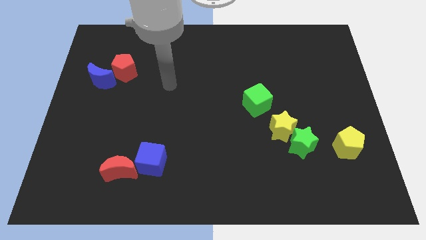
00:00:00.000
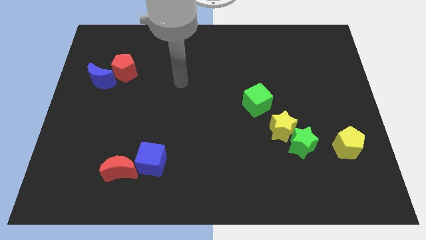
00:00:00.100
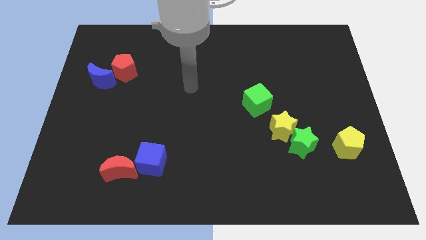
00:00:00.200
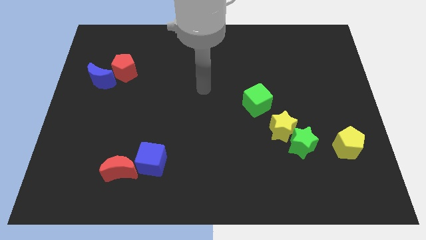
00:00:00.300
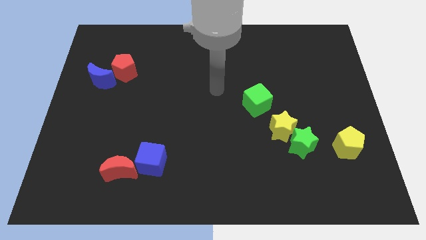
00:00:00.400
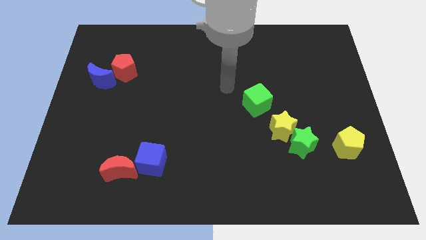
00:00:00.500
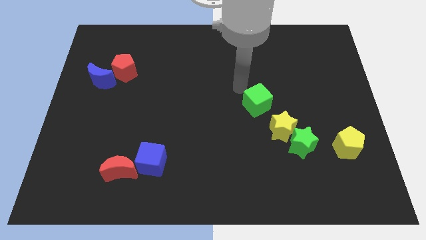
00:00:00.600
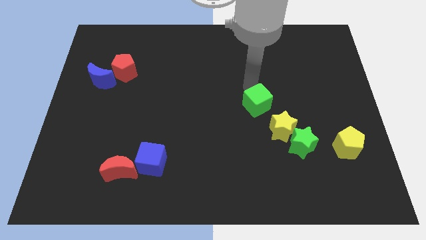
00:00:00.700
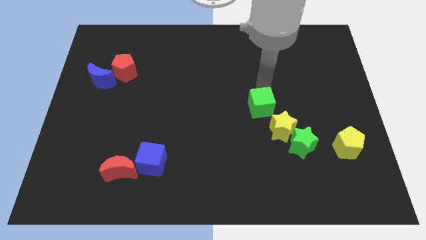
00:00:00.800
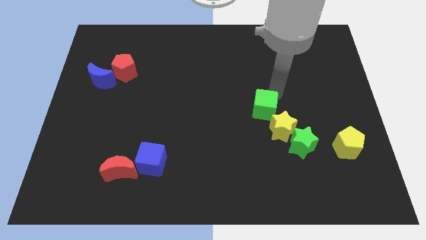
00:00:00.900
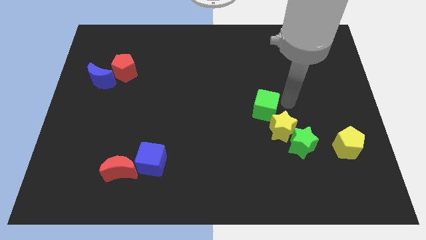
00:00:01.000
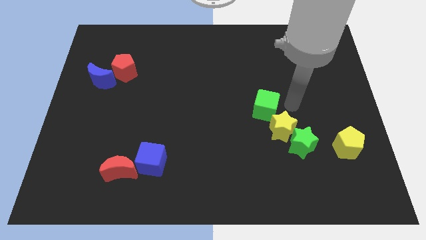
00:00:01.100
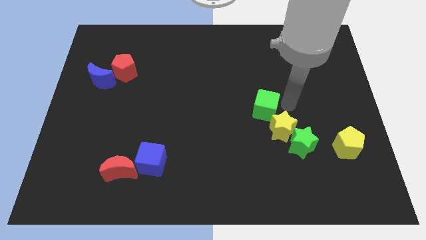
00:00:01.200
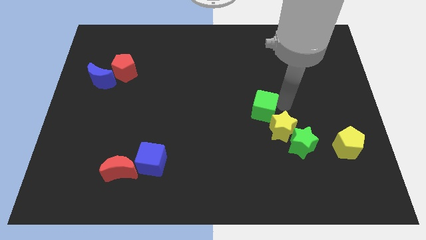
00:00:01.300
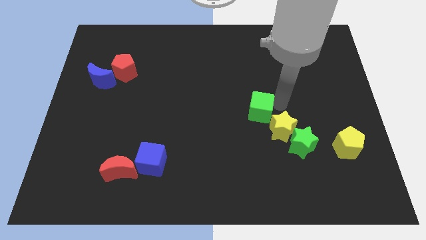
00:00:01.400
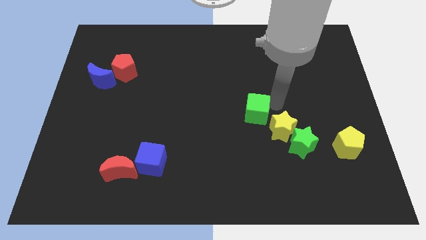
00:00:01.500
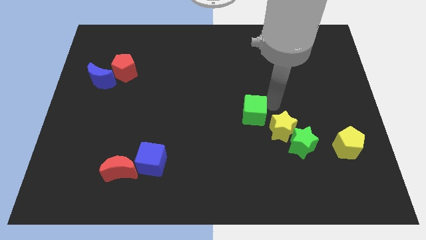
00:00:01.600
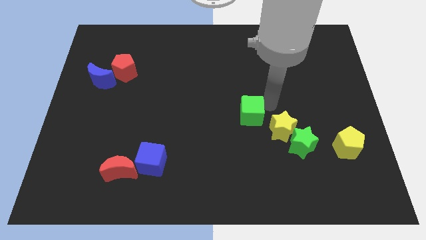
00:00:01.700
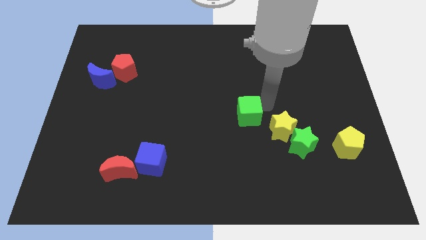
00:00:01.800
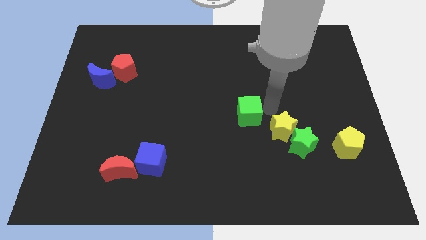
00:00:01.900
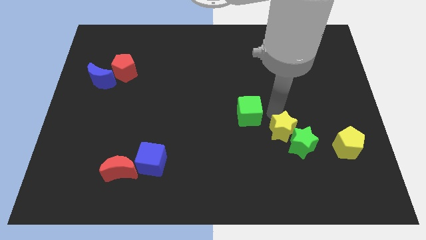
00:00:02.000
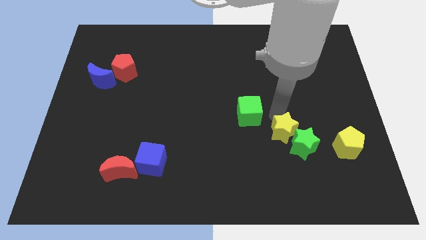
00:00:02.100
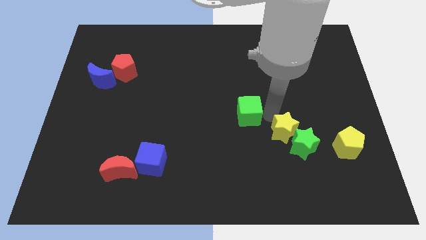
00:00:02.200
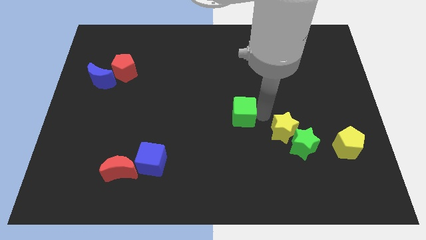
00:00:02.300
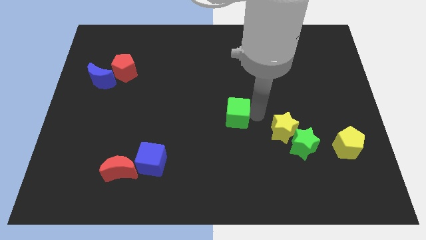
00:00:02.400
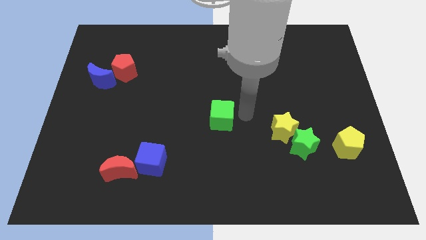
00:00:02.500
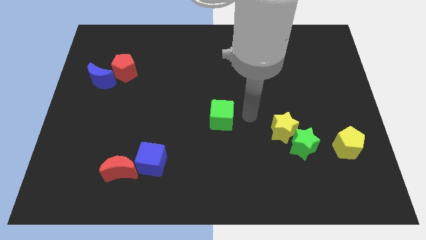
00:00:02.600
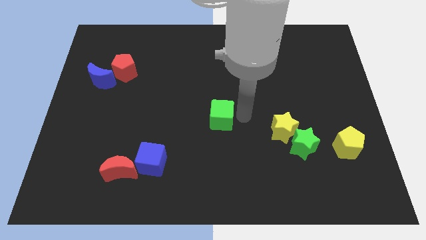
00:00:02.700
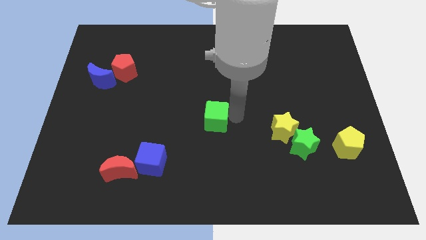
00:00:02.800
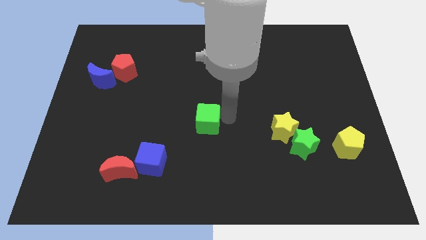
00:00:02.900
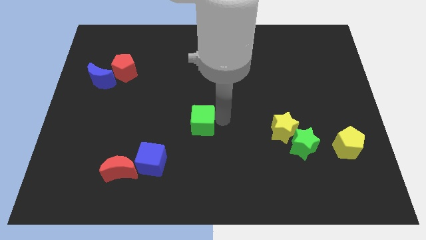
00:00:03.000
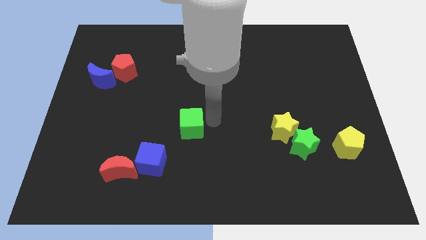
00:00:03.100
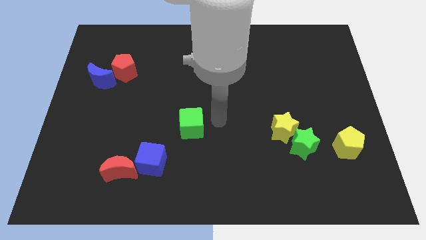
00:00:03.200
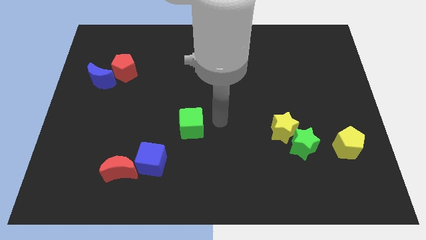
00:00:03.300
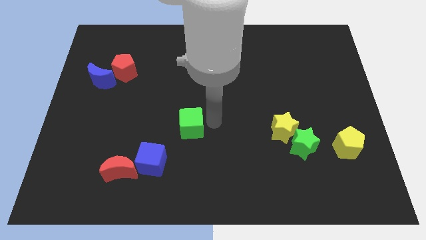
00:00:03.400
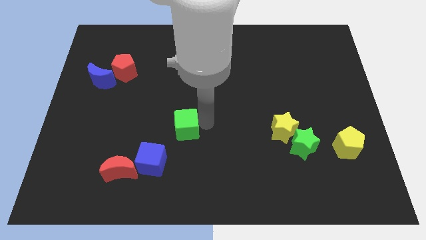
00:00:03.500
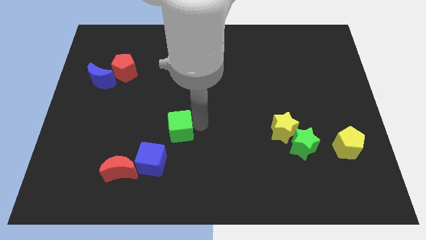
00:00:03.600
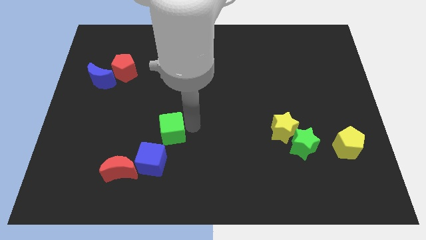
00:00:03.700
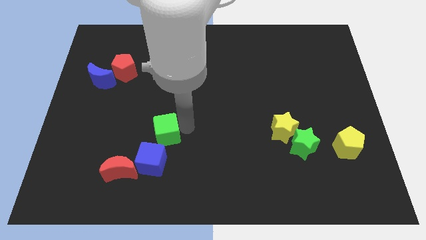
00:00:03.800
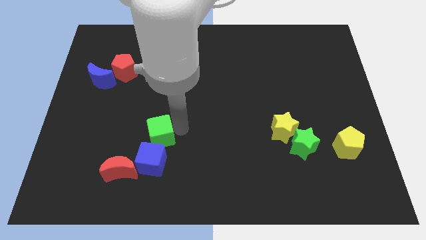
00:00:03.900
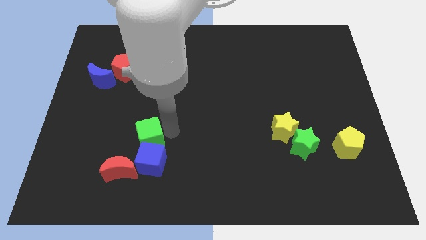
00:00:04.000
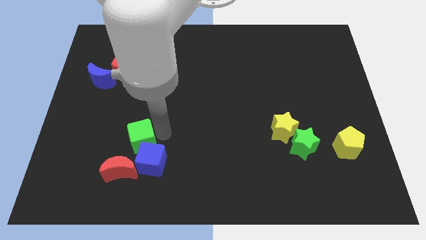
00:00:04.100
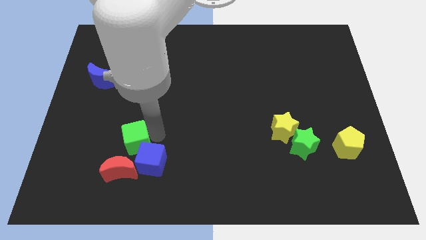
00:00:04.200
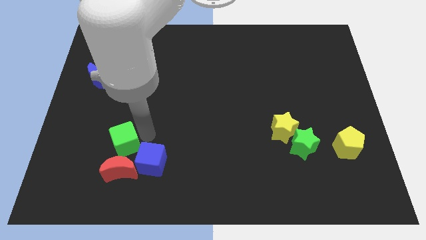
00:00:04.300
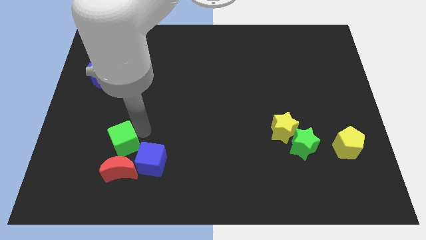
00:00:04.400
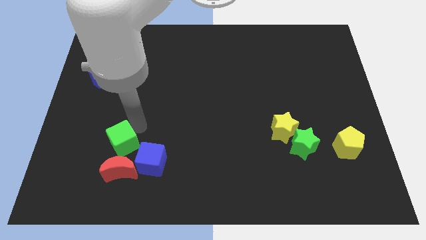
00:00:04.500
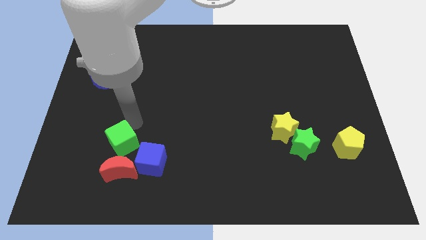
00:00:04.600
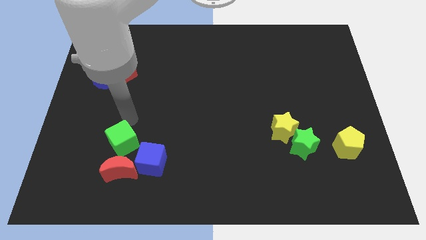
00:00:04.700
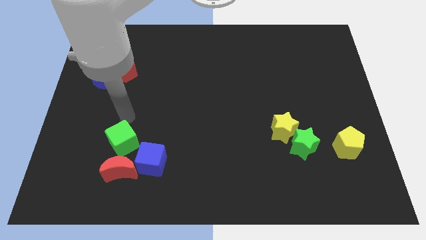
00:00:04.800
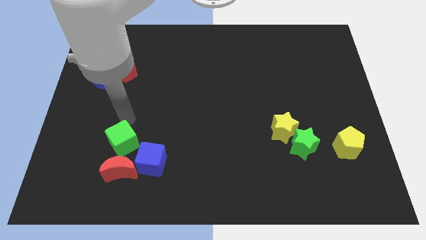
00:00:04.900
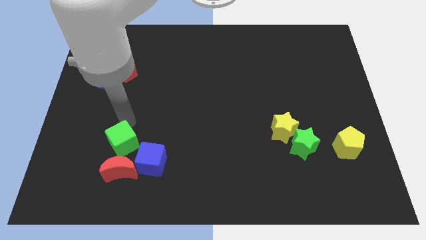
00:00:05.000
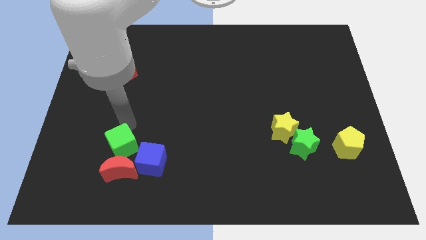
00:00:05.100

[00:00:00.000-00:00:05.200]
slide the green cube to the red moon

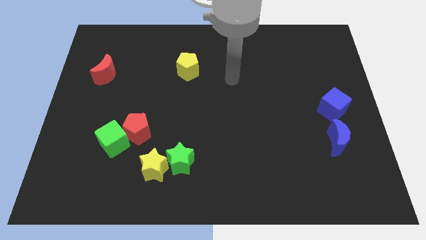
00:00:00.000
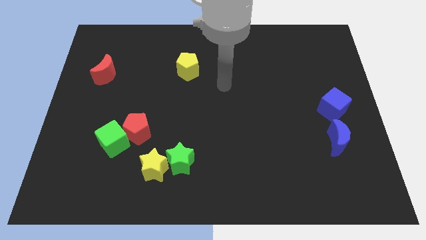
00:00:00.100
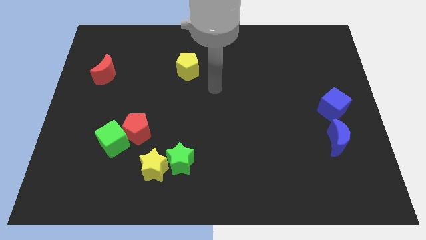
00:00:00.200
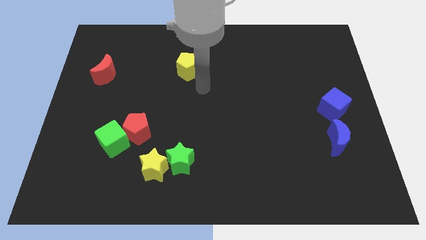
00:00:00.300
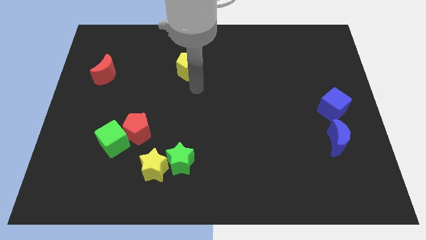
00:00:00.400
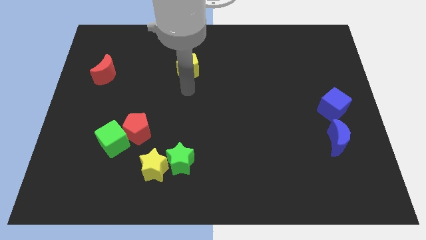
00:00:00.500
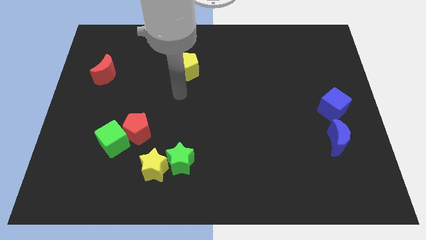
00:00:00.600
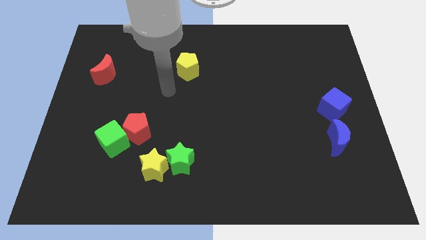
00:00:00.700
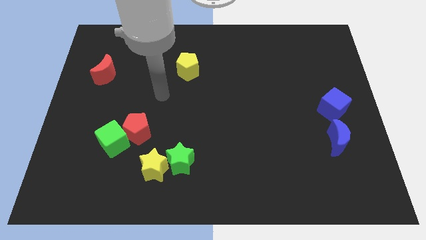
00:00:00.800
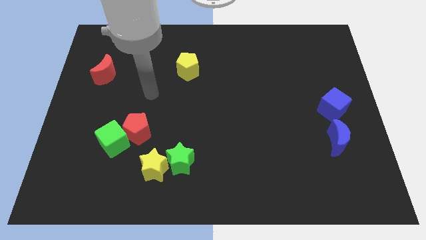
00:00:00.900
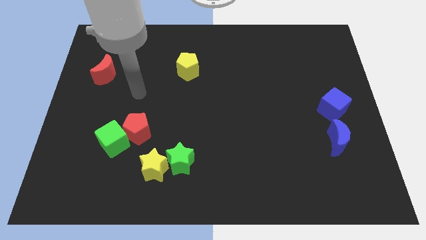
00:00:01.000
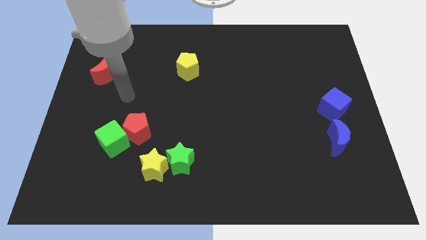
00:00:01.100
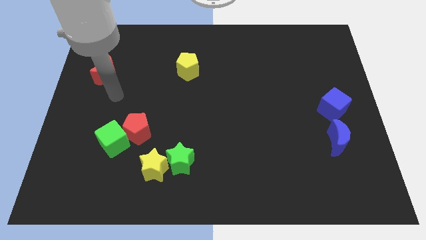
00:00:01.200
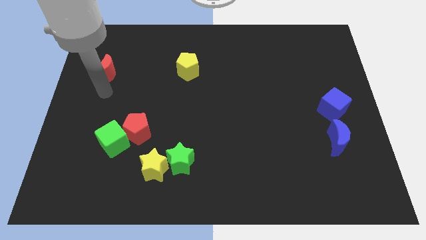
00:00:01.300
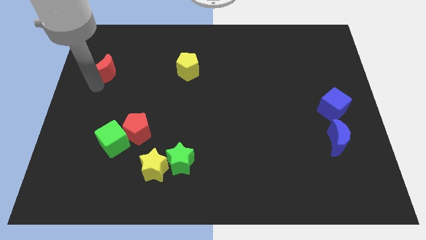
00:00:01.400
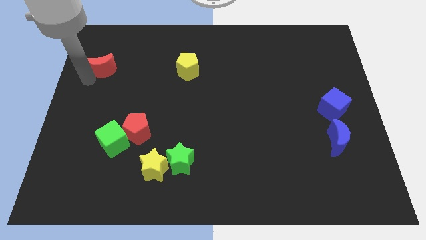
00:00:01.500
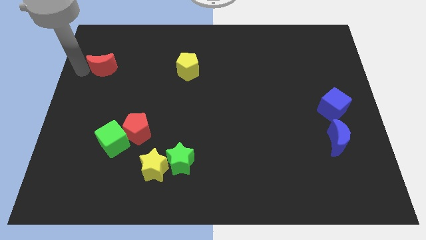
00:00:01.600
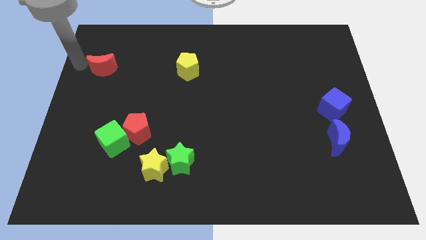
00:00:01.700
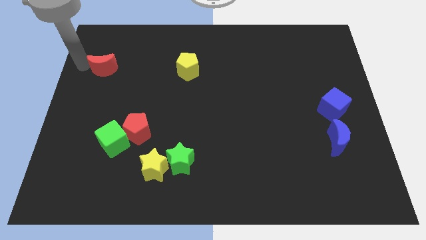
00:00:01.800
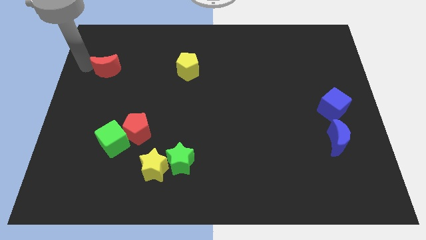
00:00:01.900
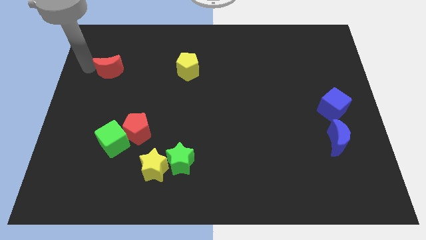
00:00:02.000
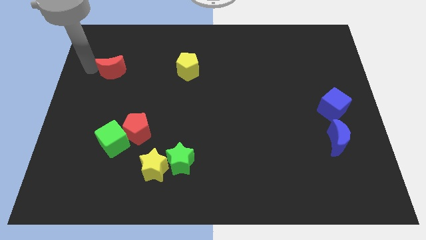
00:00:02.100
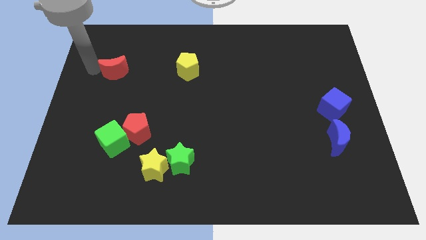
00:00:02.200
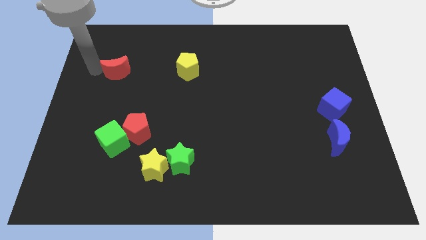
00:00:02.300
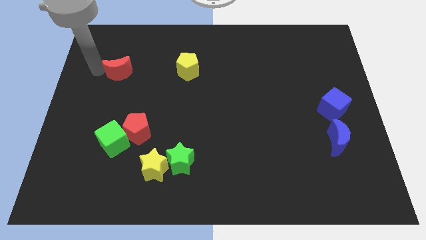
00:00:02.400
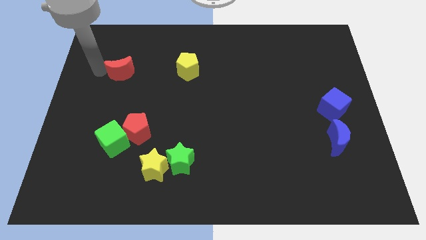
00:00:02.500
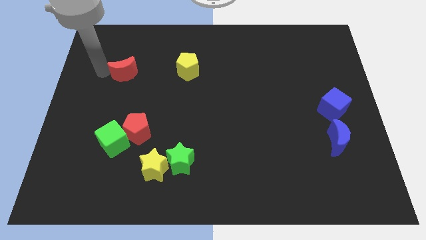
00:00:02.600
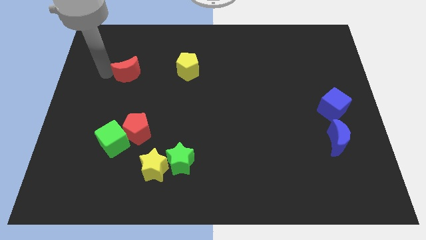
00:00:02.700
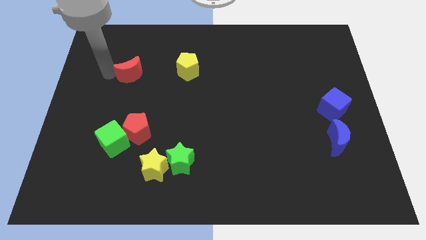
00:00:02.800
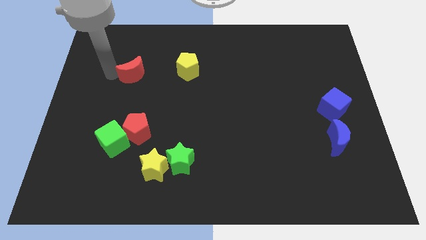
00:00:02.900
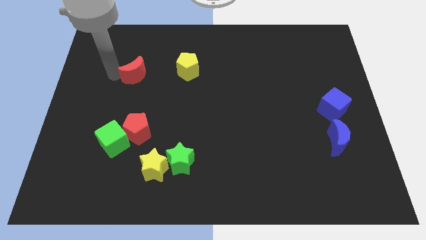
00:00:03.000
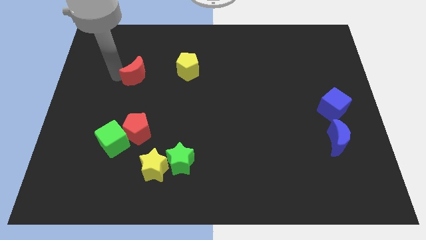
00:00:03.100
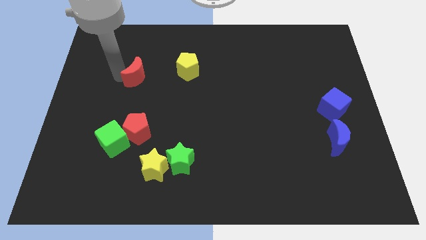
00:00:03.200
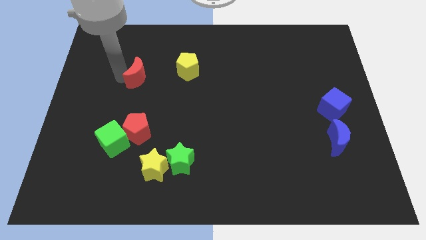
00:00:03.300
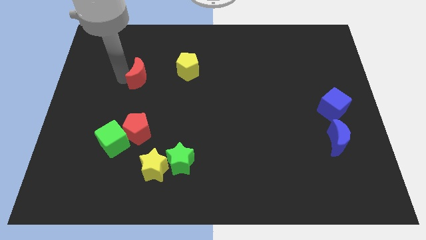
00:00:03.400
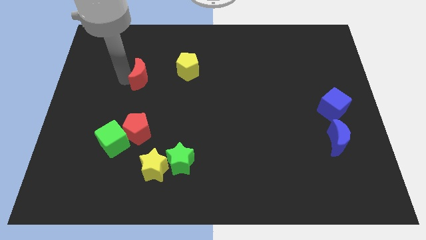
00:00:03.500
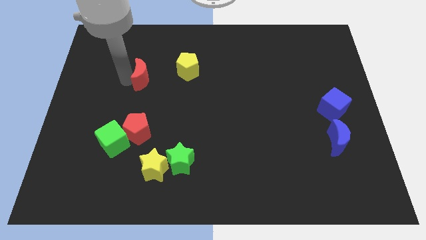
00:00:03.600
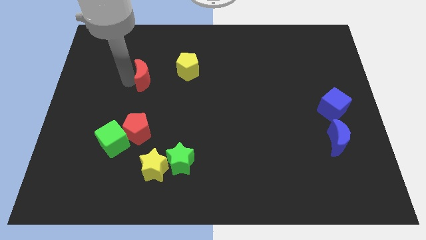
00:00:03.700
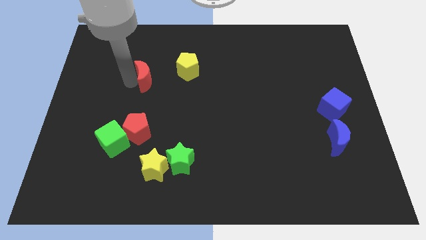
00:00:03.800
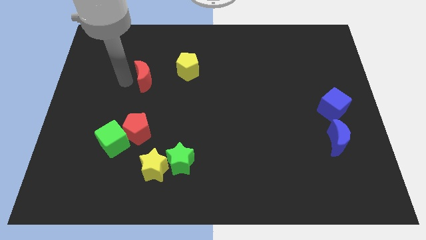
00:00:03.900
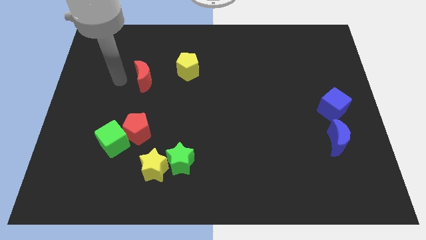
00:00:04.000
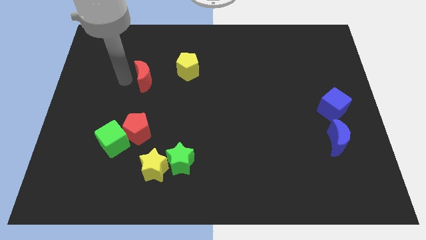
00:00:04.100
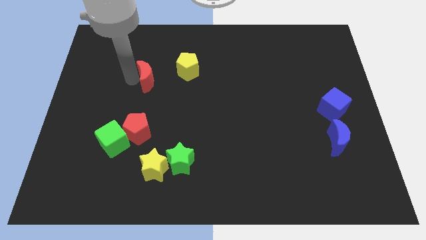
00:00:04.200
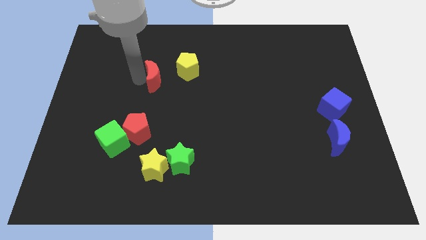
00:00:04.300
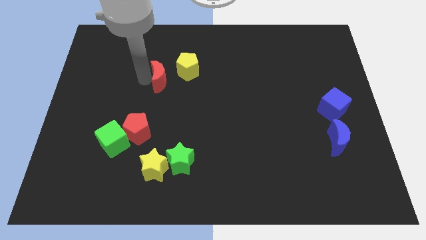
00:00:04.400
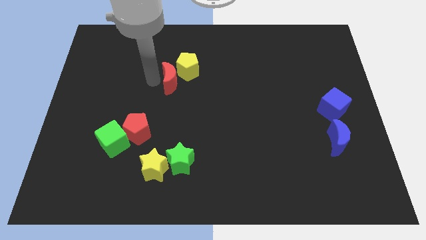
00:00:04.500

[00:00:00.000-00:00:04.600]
slide the red moon towards the yellow pentagon
